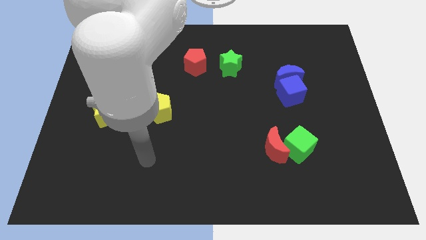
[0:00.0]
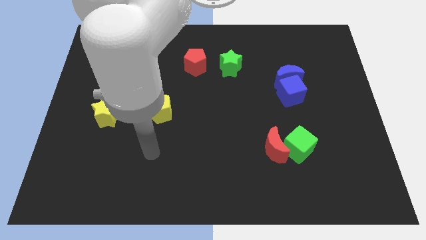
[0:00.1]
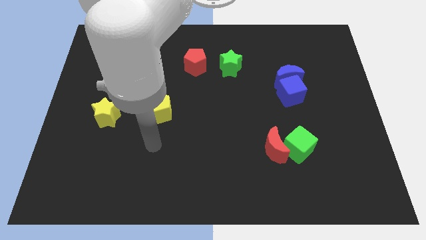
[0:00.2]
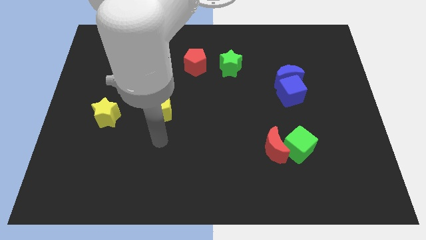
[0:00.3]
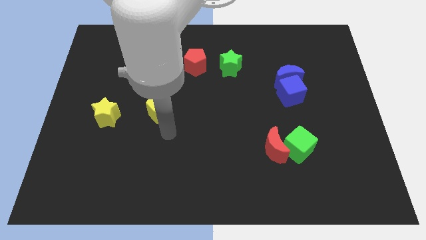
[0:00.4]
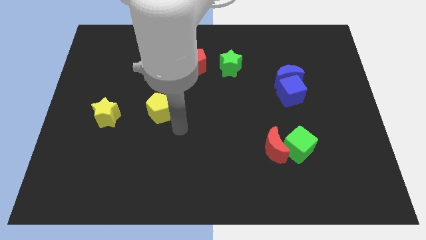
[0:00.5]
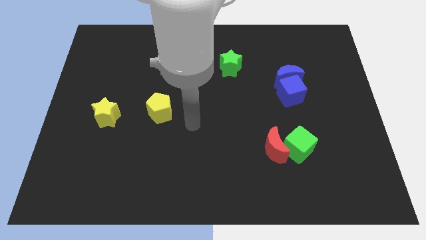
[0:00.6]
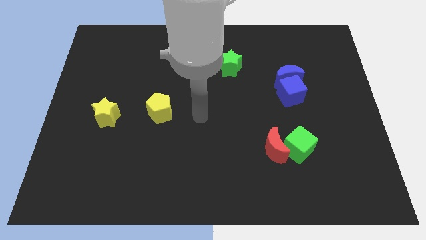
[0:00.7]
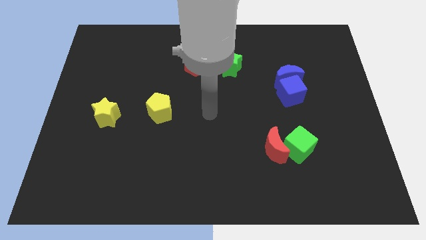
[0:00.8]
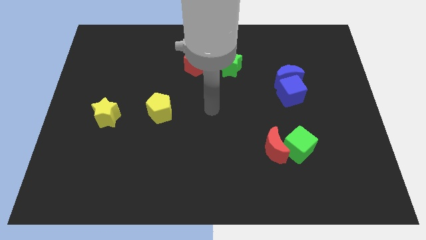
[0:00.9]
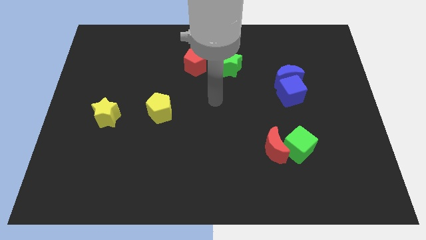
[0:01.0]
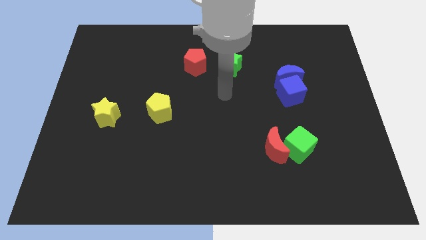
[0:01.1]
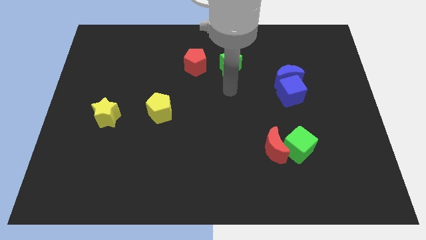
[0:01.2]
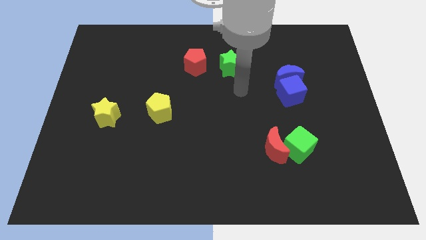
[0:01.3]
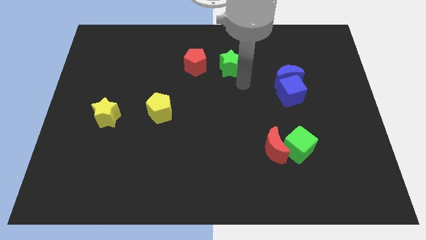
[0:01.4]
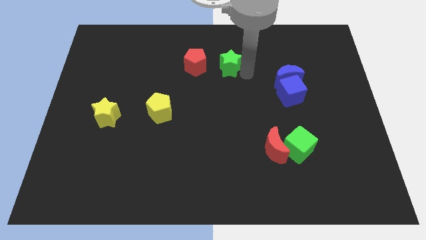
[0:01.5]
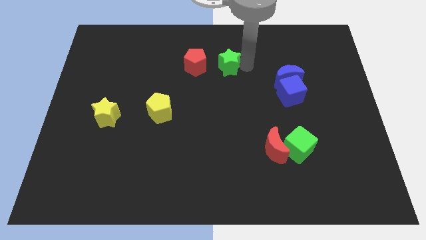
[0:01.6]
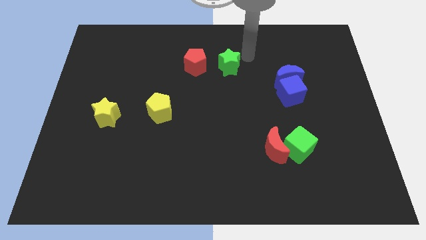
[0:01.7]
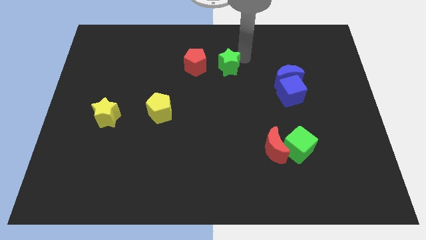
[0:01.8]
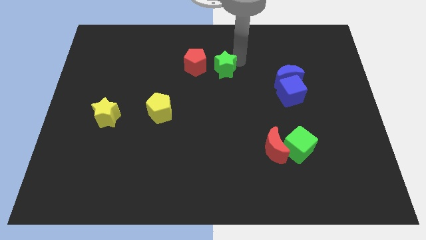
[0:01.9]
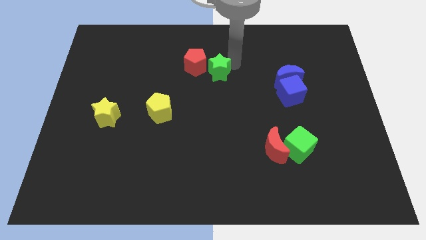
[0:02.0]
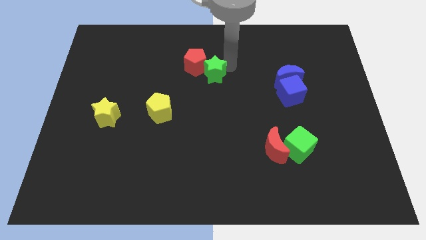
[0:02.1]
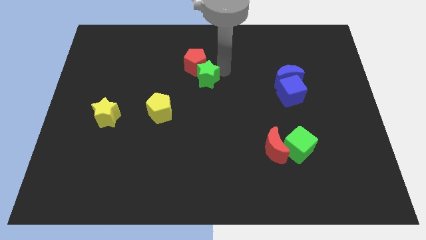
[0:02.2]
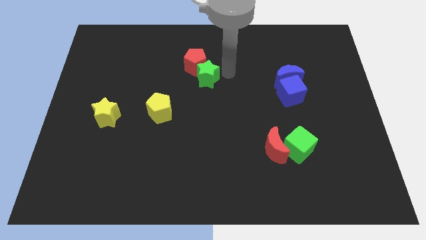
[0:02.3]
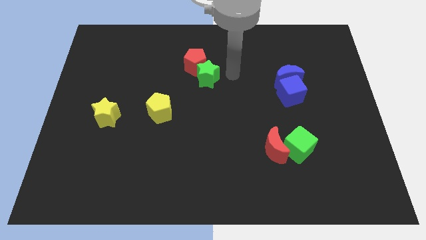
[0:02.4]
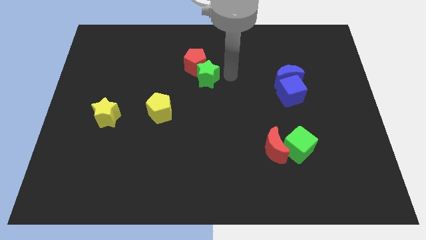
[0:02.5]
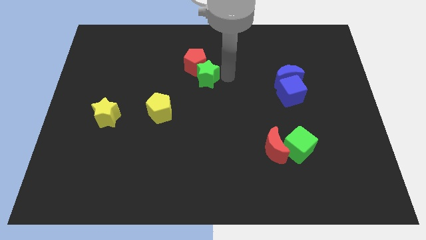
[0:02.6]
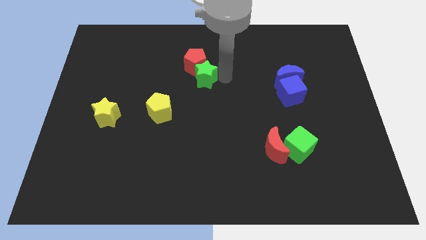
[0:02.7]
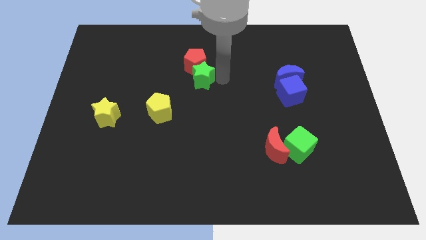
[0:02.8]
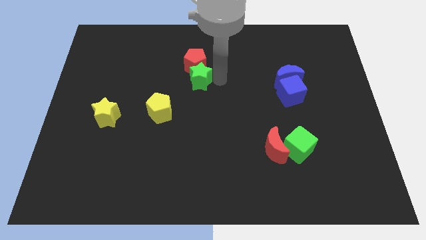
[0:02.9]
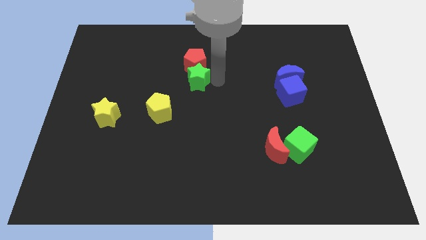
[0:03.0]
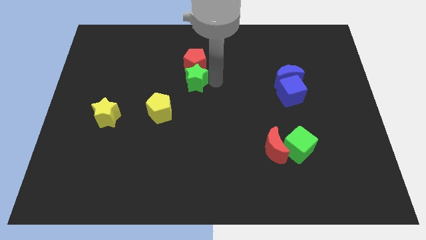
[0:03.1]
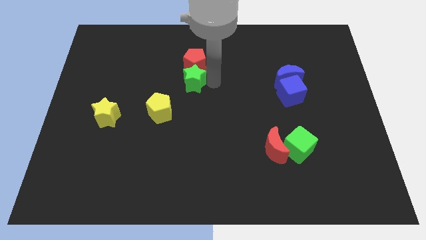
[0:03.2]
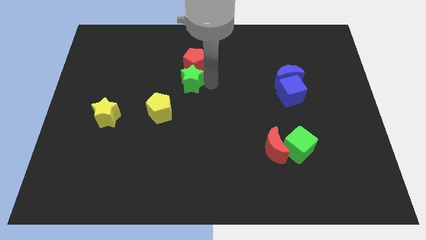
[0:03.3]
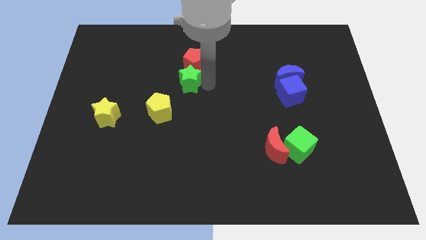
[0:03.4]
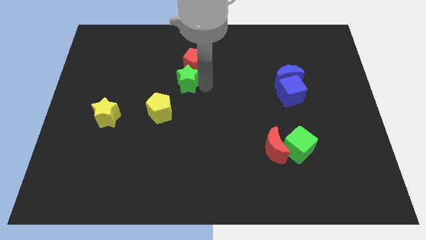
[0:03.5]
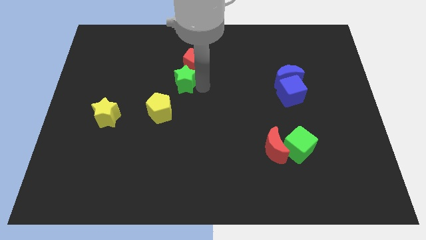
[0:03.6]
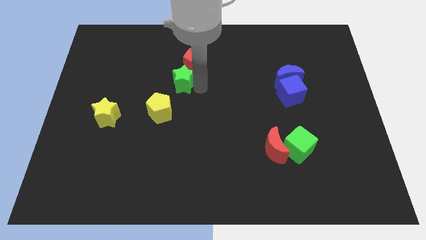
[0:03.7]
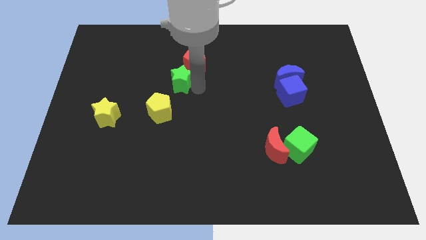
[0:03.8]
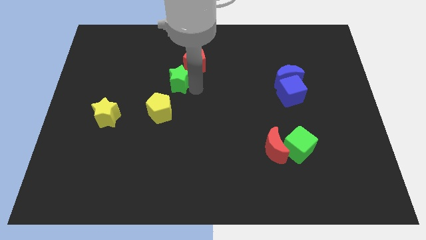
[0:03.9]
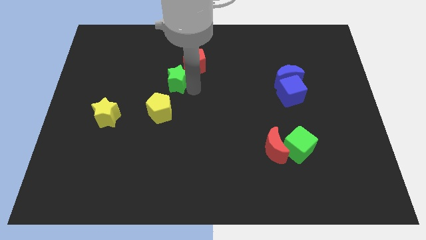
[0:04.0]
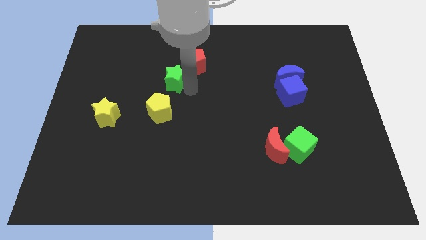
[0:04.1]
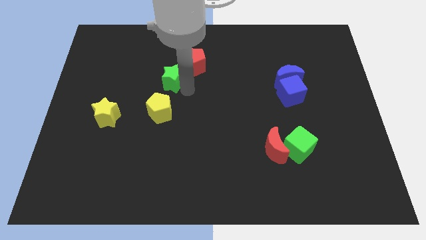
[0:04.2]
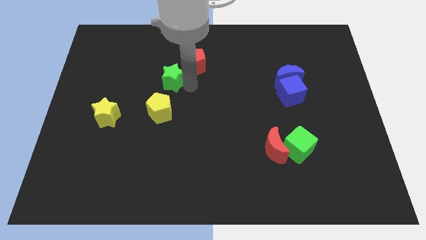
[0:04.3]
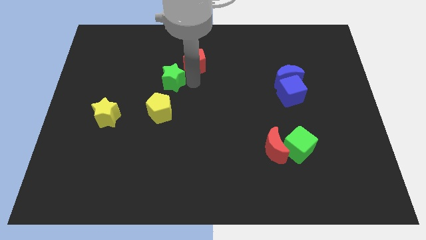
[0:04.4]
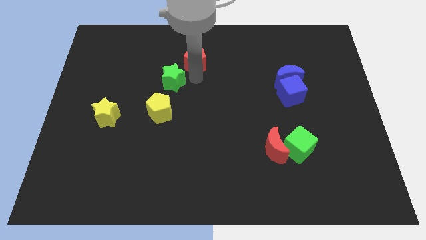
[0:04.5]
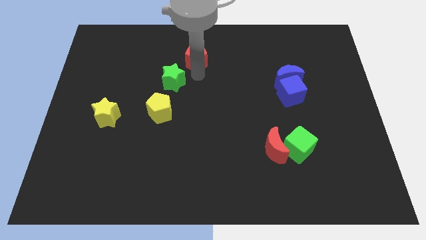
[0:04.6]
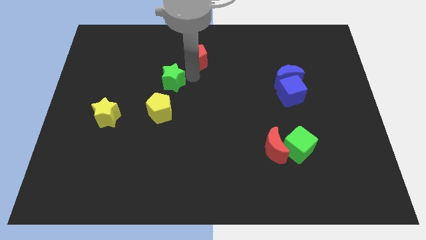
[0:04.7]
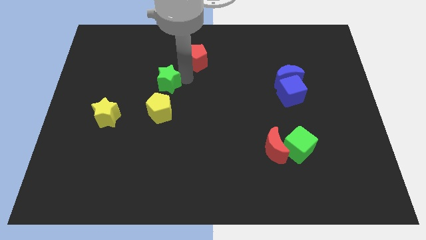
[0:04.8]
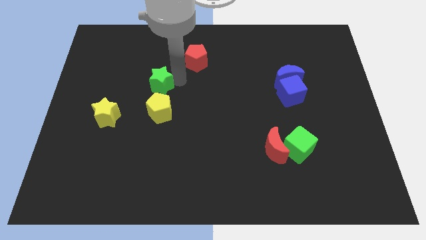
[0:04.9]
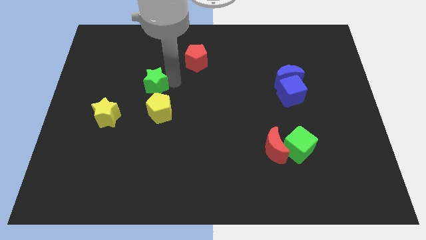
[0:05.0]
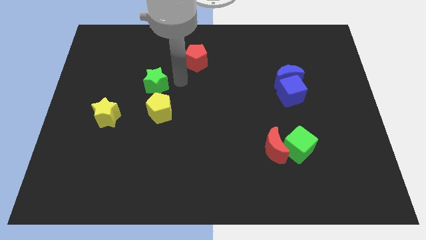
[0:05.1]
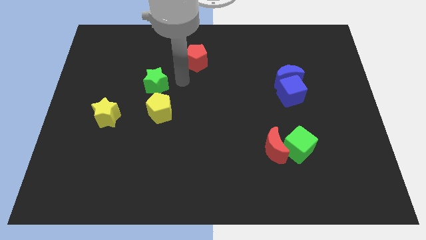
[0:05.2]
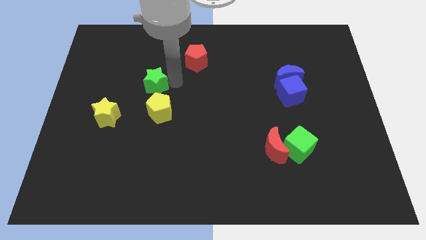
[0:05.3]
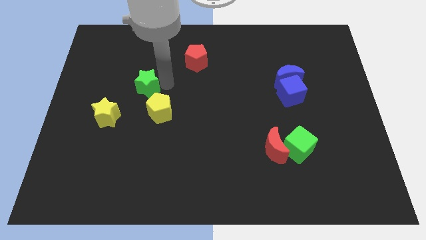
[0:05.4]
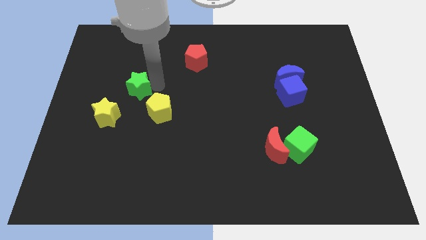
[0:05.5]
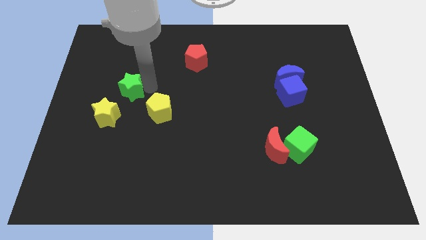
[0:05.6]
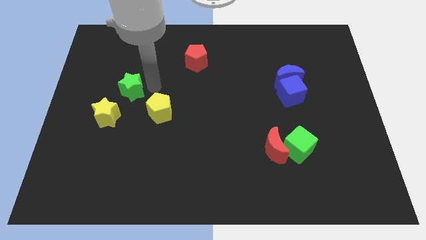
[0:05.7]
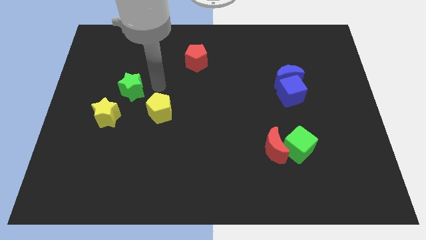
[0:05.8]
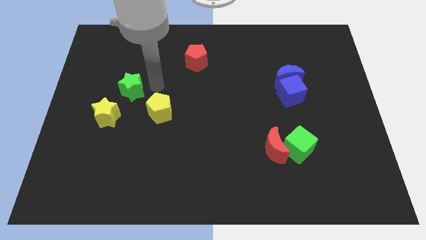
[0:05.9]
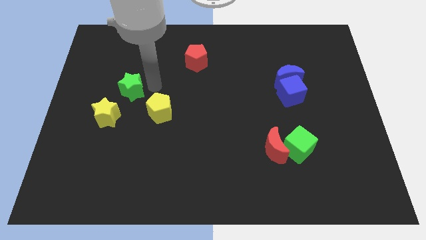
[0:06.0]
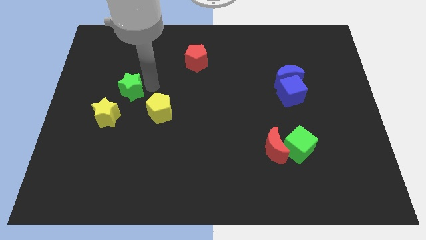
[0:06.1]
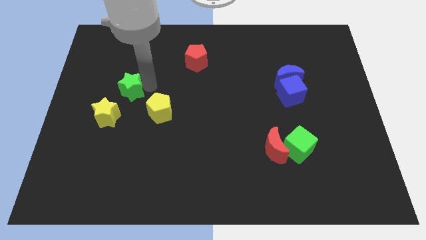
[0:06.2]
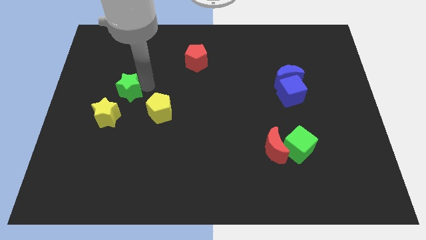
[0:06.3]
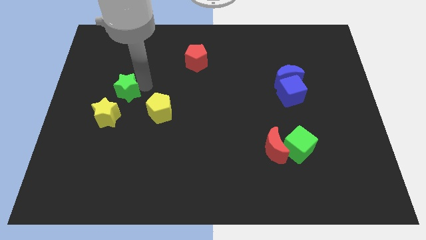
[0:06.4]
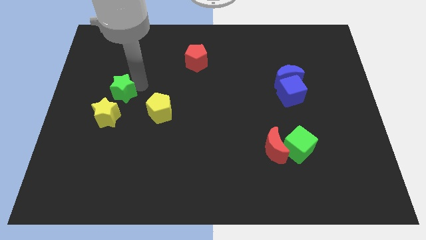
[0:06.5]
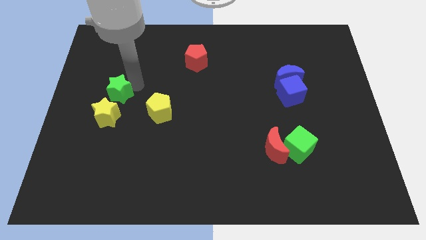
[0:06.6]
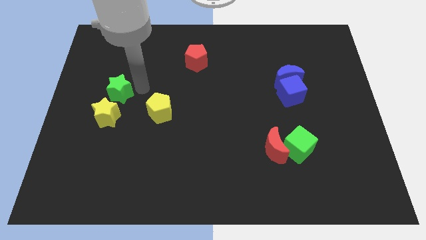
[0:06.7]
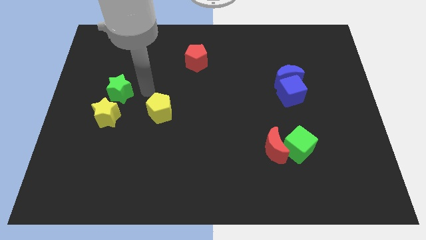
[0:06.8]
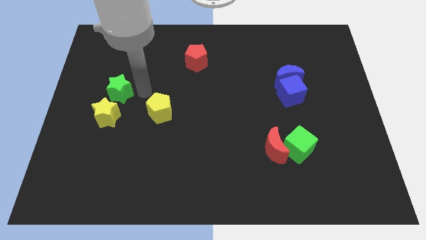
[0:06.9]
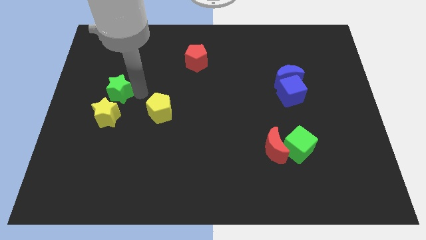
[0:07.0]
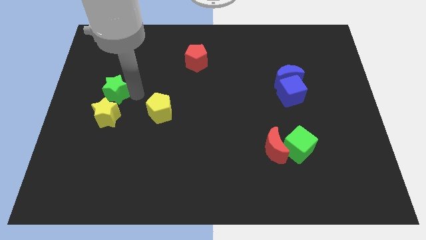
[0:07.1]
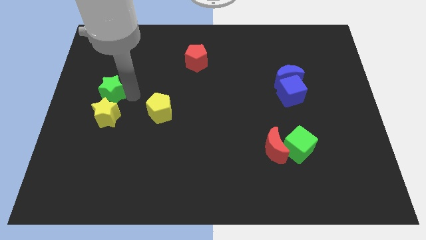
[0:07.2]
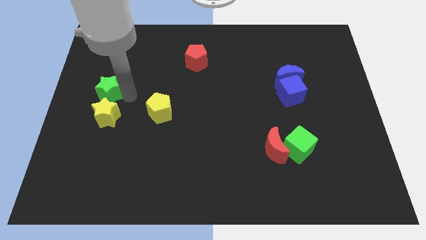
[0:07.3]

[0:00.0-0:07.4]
put the green star to the left side
